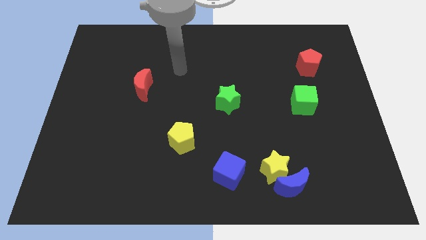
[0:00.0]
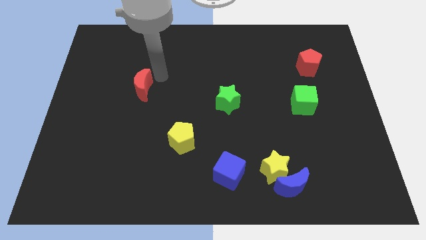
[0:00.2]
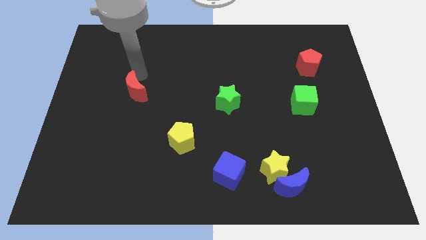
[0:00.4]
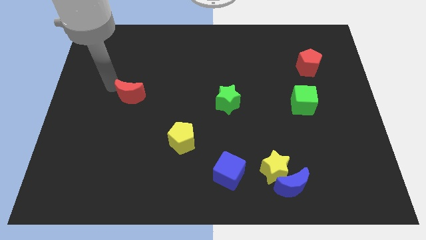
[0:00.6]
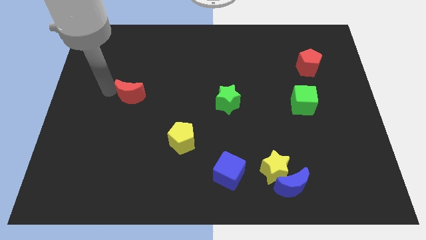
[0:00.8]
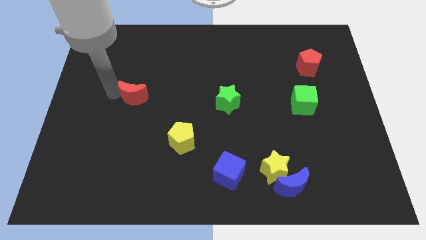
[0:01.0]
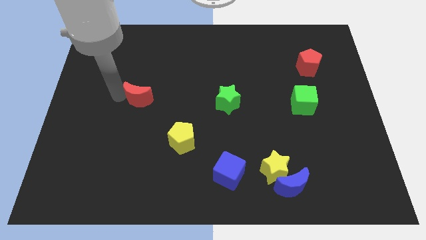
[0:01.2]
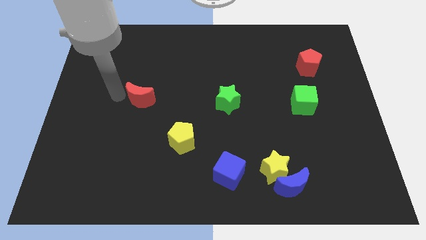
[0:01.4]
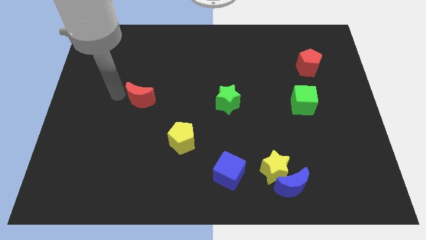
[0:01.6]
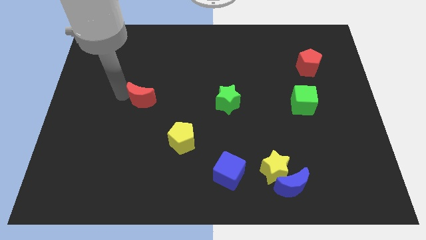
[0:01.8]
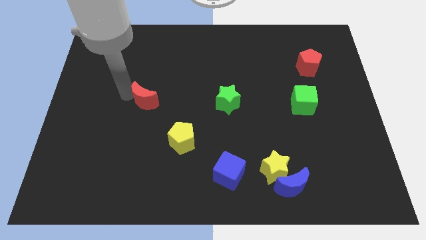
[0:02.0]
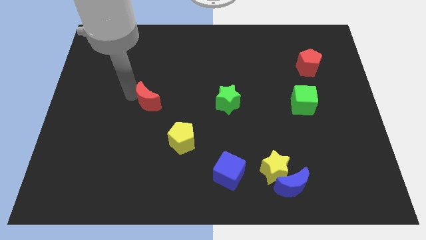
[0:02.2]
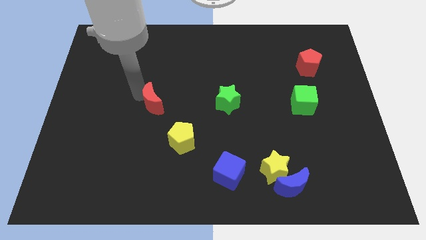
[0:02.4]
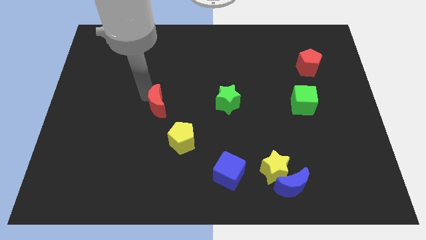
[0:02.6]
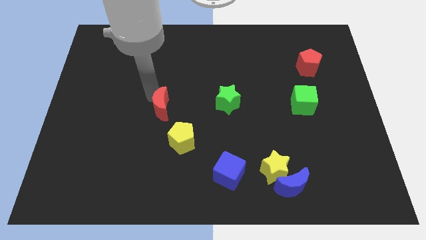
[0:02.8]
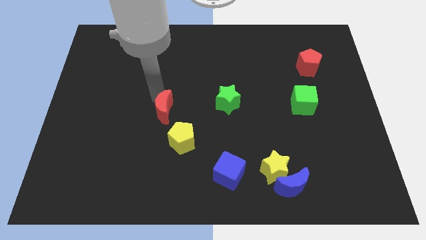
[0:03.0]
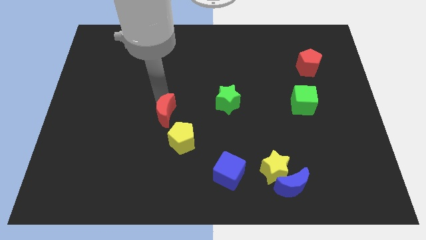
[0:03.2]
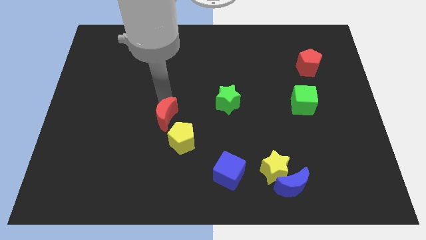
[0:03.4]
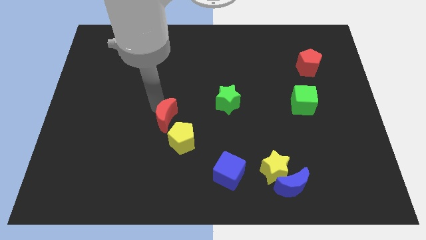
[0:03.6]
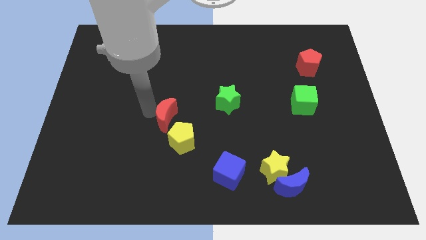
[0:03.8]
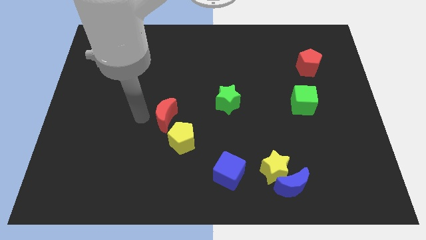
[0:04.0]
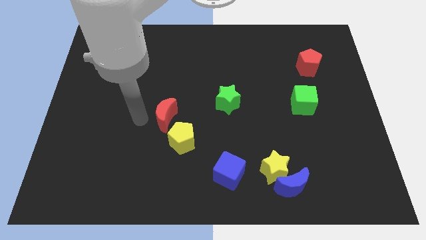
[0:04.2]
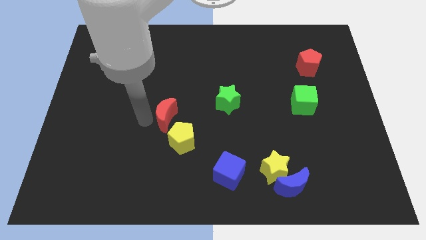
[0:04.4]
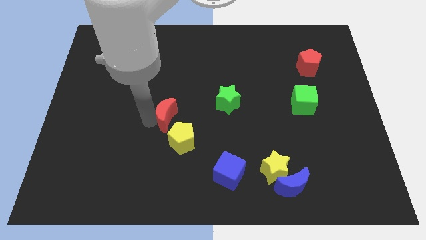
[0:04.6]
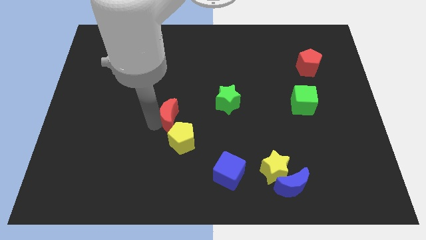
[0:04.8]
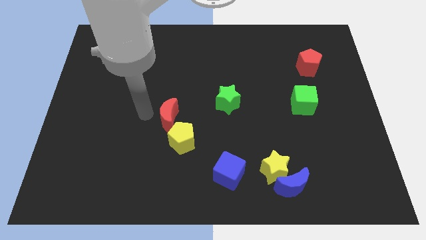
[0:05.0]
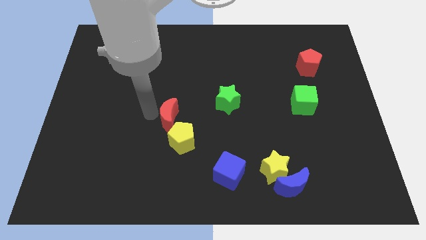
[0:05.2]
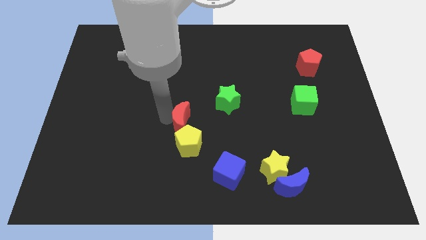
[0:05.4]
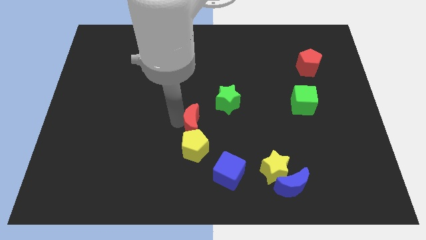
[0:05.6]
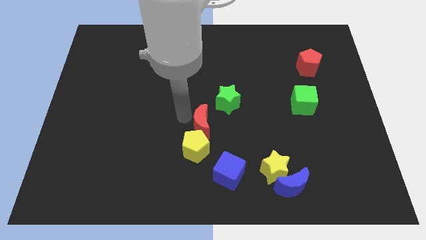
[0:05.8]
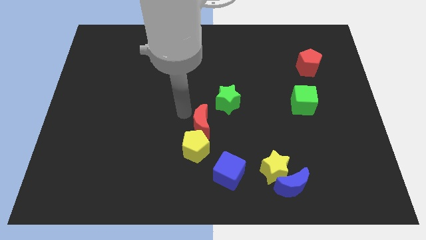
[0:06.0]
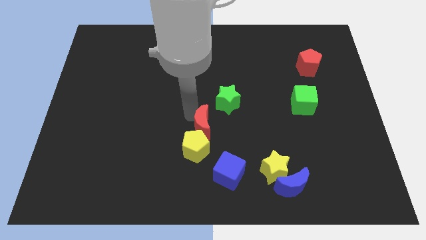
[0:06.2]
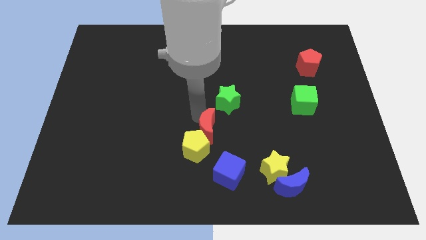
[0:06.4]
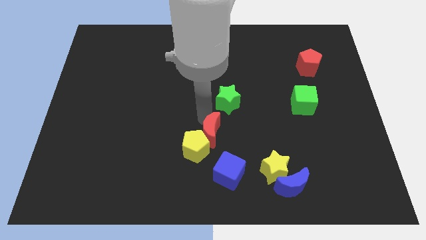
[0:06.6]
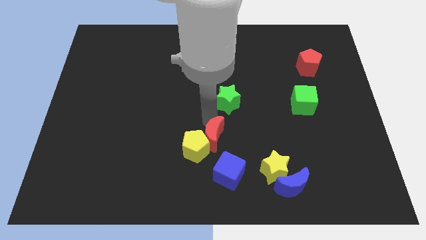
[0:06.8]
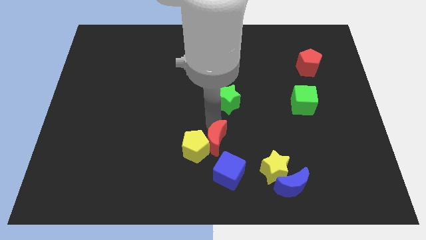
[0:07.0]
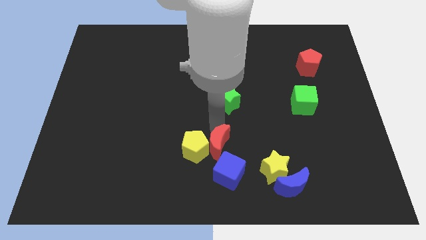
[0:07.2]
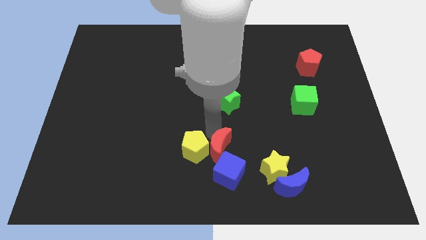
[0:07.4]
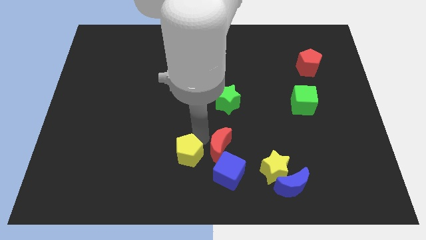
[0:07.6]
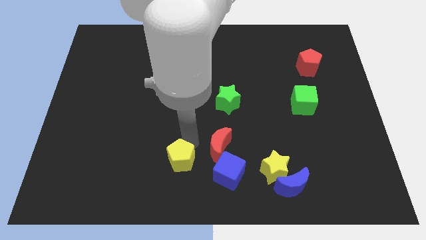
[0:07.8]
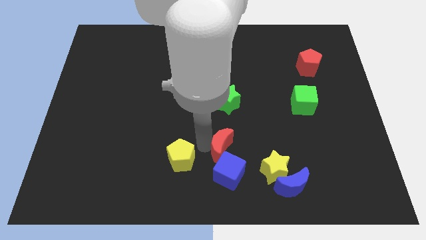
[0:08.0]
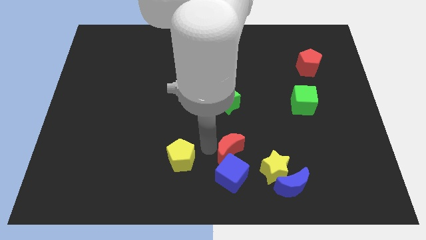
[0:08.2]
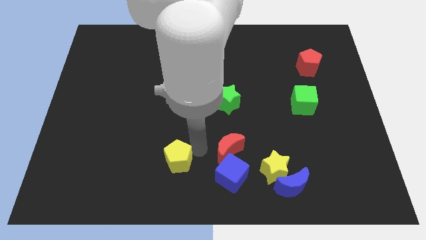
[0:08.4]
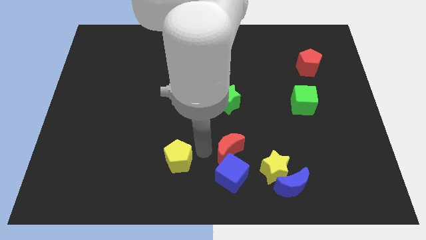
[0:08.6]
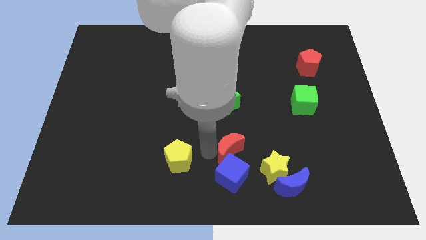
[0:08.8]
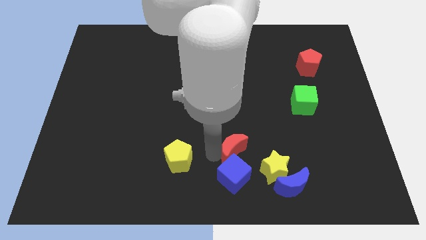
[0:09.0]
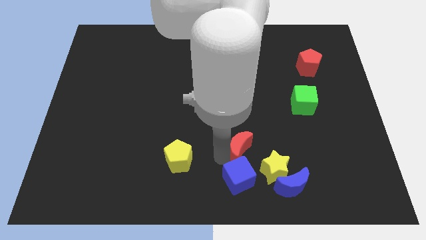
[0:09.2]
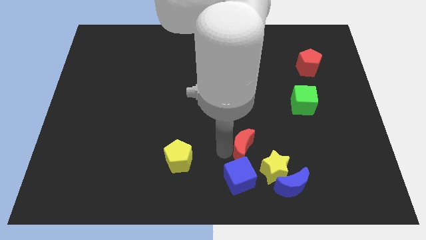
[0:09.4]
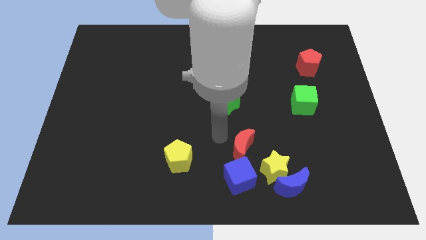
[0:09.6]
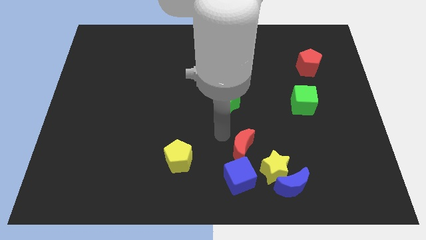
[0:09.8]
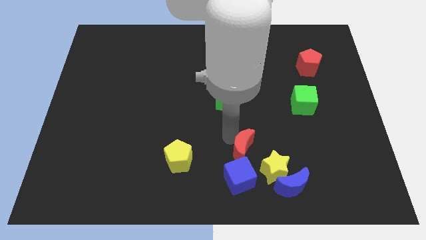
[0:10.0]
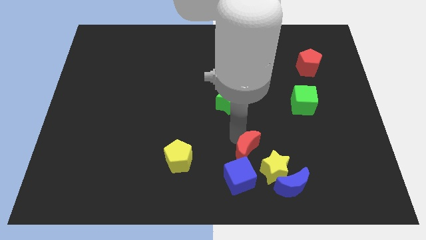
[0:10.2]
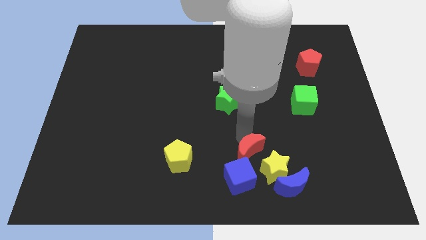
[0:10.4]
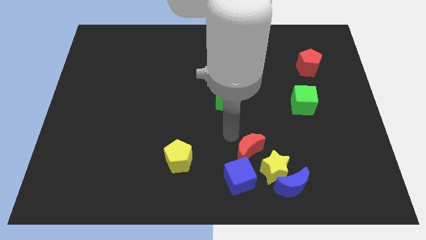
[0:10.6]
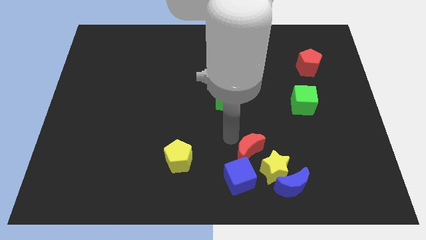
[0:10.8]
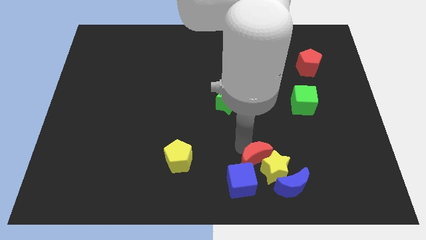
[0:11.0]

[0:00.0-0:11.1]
push the red moon next to the yellow star

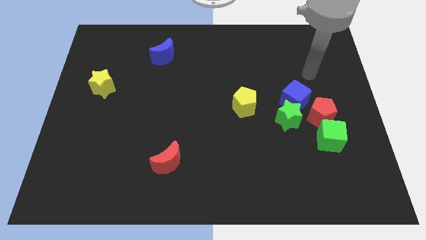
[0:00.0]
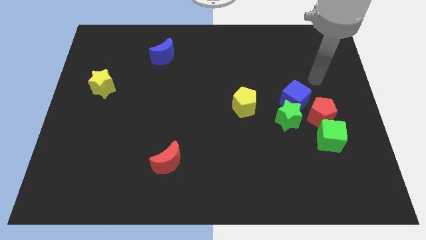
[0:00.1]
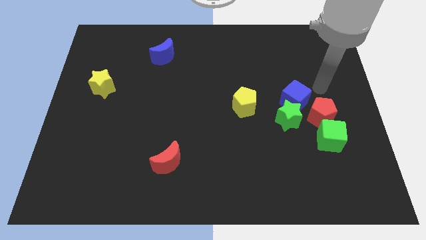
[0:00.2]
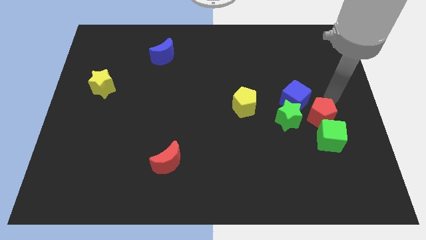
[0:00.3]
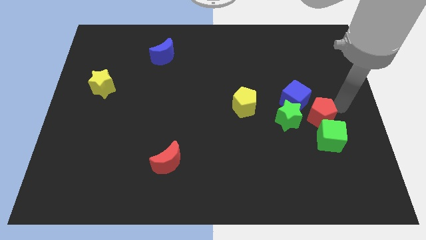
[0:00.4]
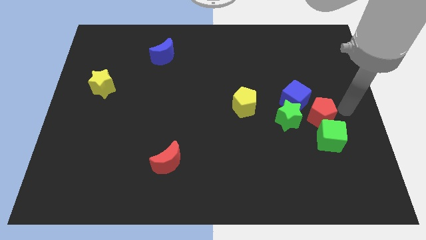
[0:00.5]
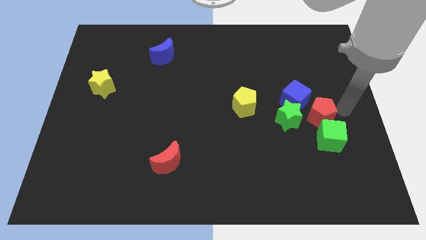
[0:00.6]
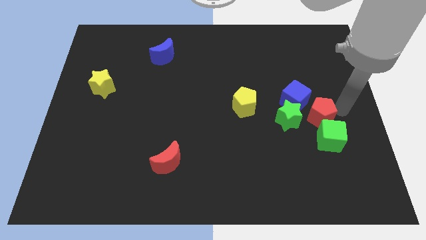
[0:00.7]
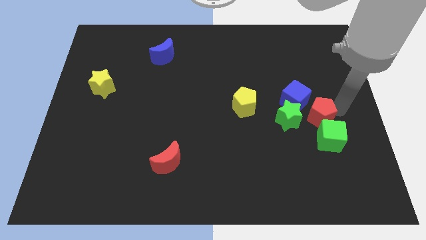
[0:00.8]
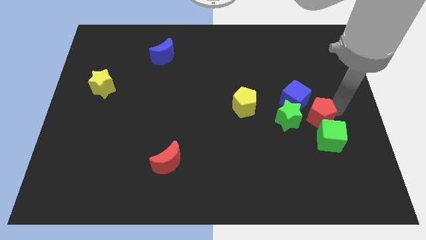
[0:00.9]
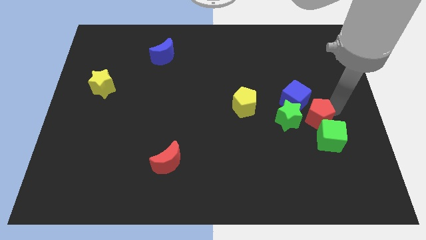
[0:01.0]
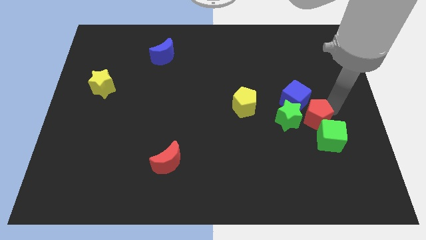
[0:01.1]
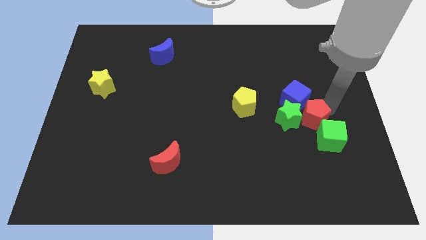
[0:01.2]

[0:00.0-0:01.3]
put the red pentagon towards the green star
